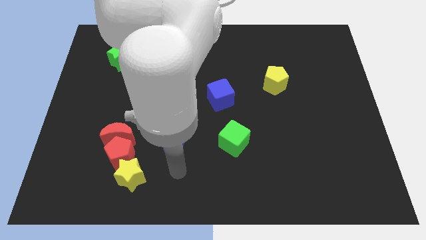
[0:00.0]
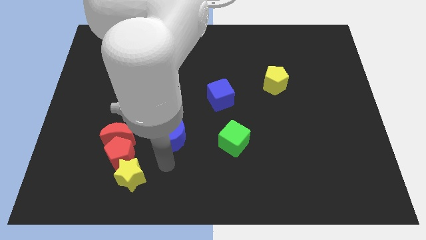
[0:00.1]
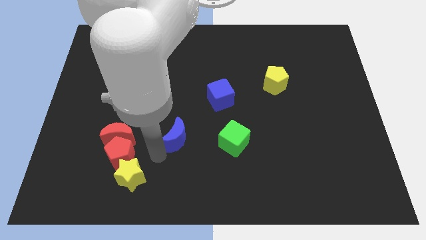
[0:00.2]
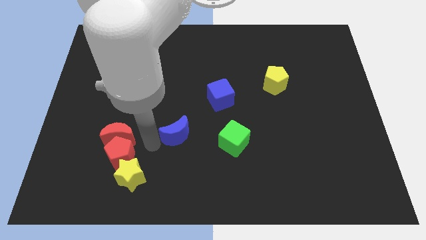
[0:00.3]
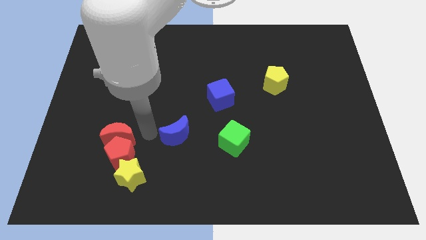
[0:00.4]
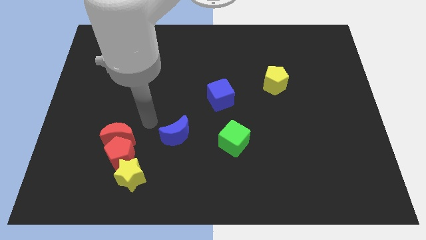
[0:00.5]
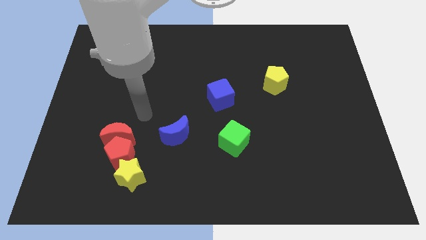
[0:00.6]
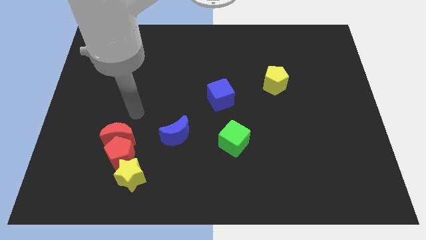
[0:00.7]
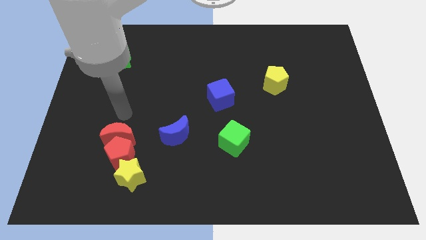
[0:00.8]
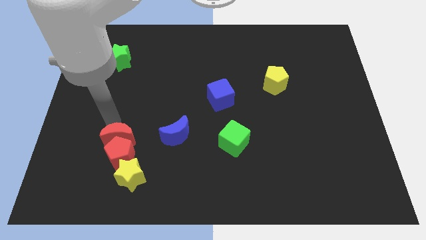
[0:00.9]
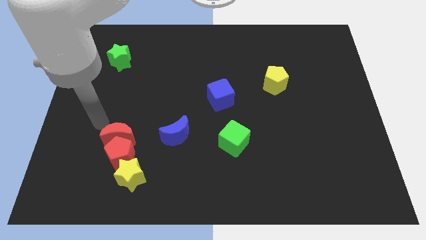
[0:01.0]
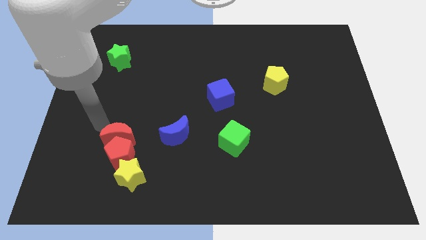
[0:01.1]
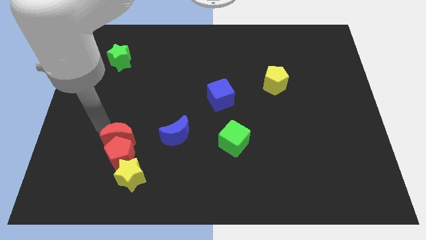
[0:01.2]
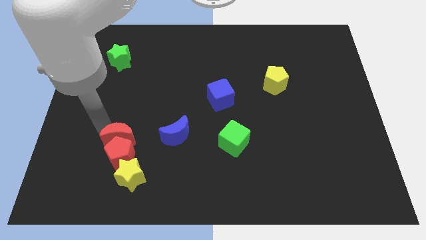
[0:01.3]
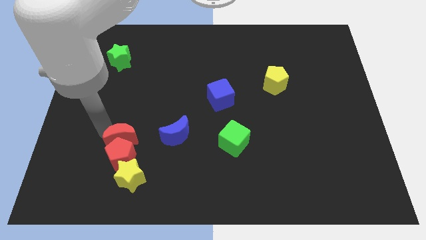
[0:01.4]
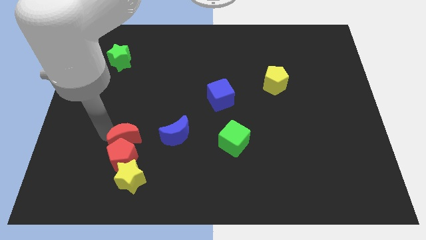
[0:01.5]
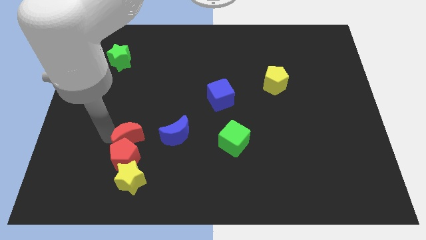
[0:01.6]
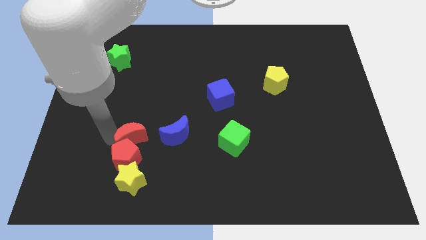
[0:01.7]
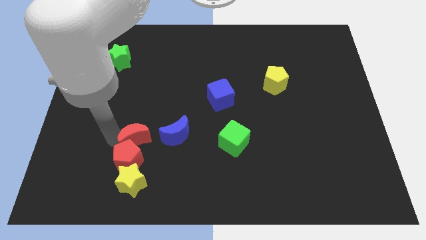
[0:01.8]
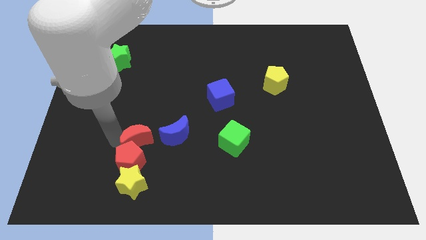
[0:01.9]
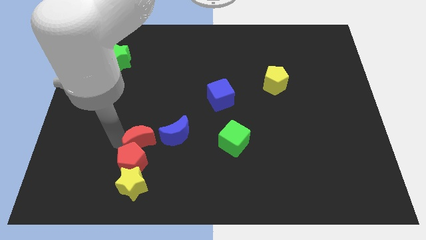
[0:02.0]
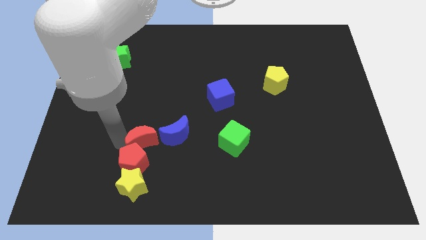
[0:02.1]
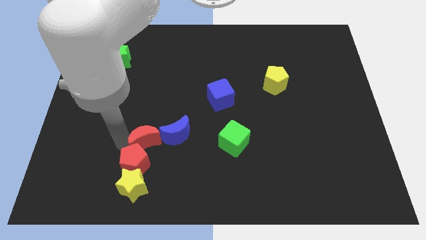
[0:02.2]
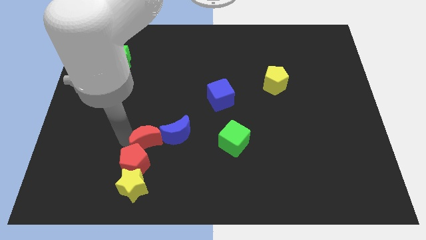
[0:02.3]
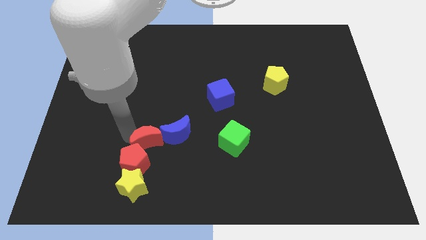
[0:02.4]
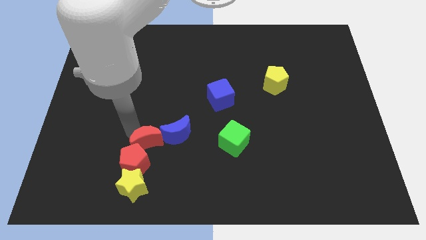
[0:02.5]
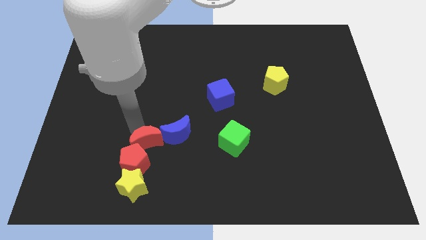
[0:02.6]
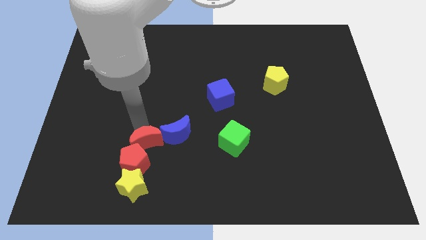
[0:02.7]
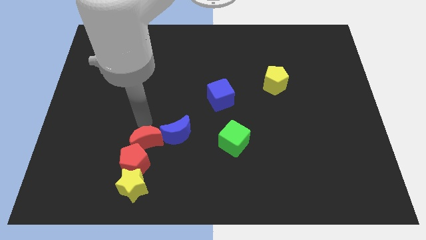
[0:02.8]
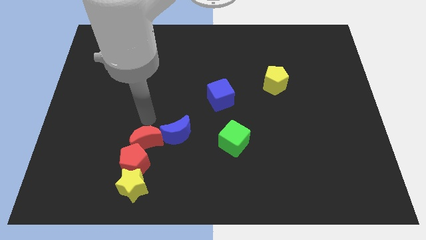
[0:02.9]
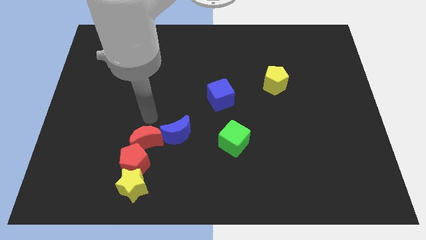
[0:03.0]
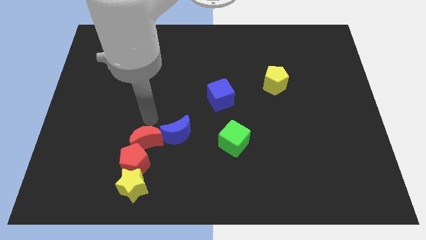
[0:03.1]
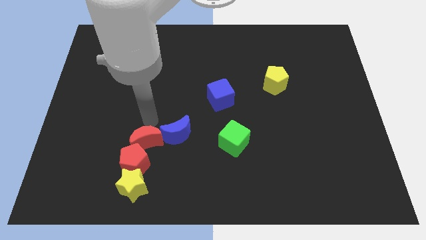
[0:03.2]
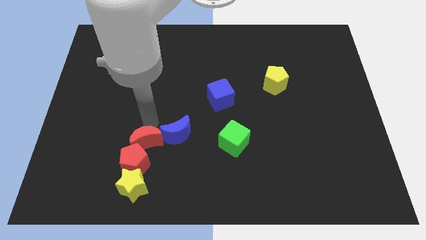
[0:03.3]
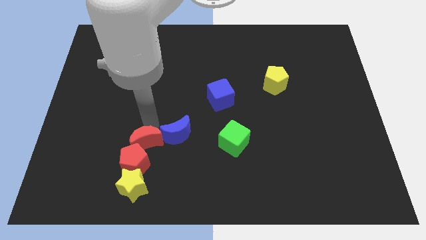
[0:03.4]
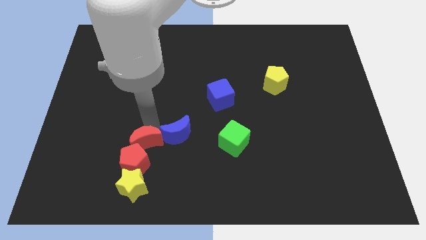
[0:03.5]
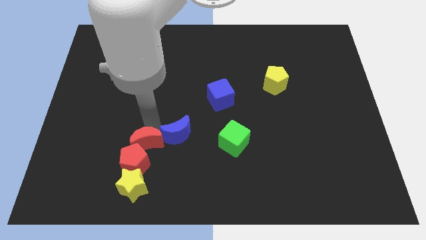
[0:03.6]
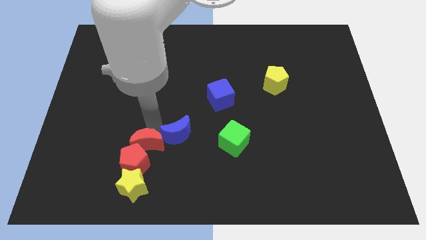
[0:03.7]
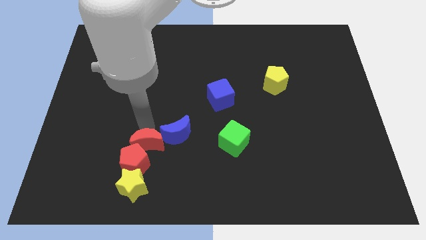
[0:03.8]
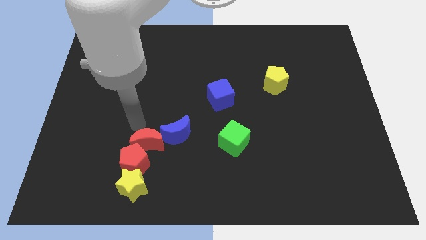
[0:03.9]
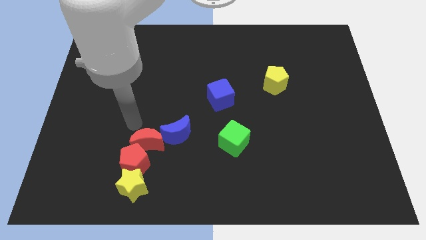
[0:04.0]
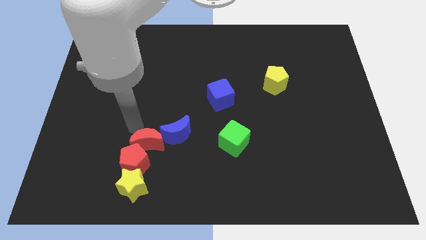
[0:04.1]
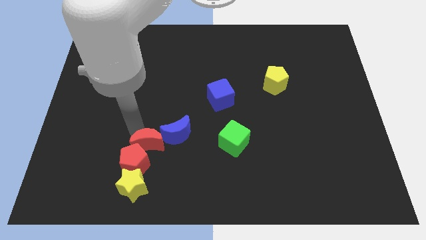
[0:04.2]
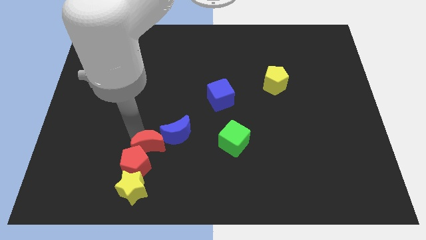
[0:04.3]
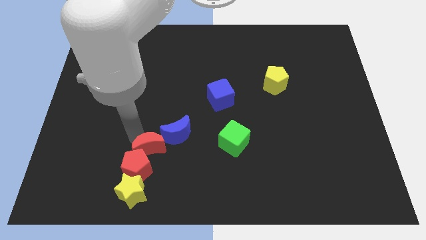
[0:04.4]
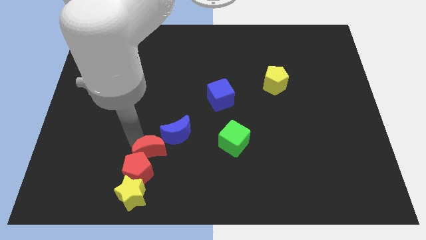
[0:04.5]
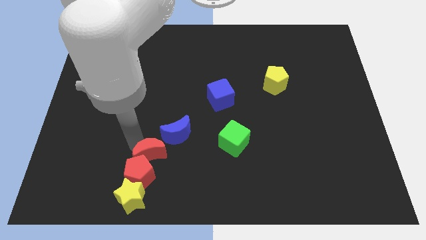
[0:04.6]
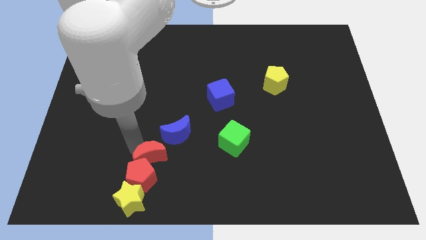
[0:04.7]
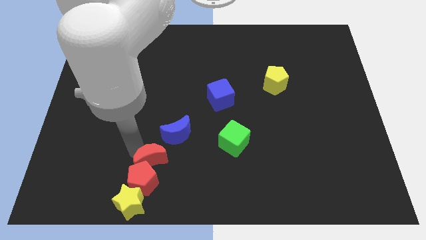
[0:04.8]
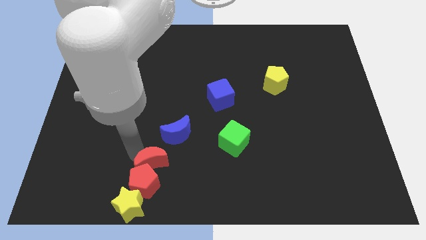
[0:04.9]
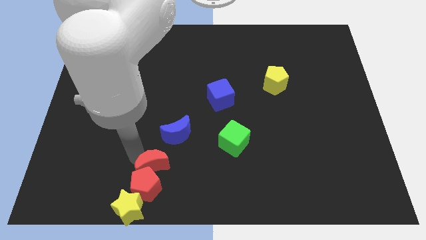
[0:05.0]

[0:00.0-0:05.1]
push the red moon below the blue moon

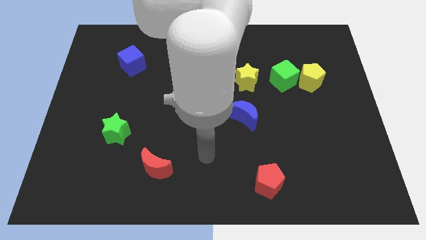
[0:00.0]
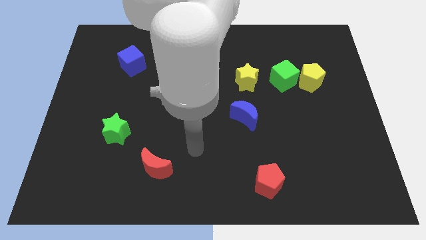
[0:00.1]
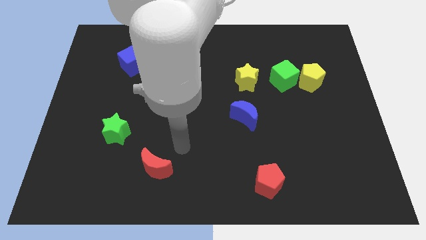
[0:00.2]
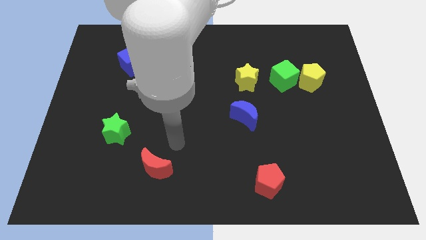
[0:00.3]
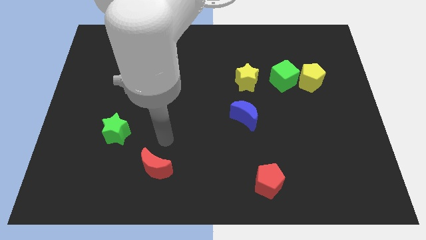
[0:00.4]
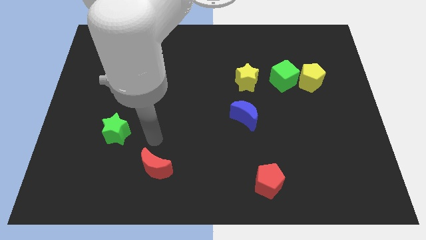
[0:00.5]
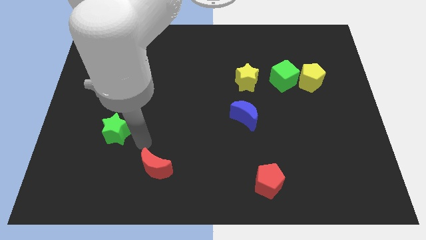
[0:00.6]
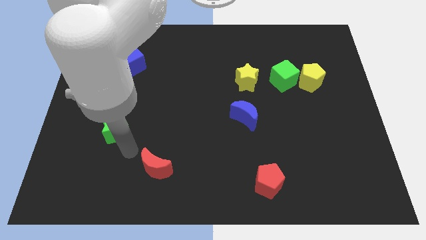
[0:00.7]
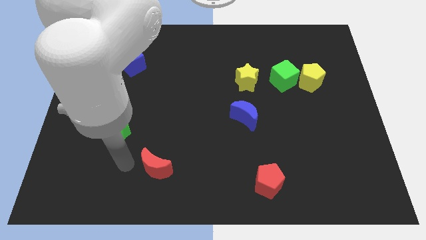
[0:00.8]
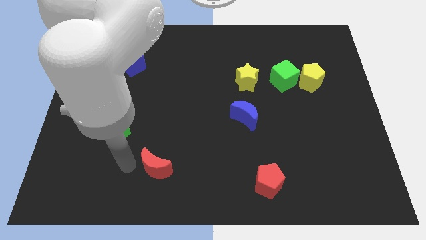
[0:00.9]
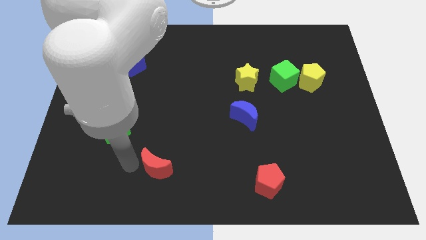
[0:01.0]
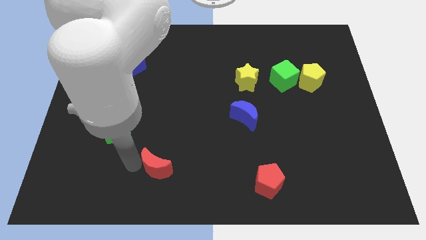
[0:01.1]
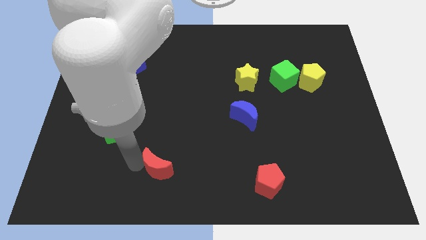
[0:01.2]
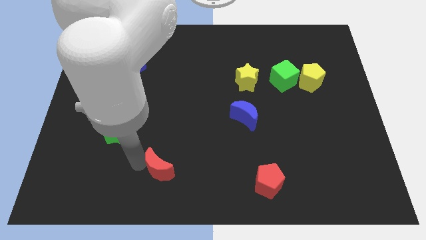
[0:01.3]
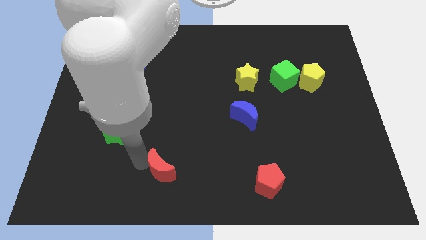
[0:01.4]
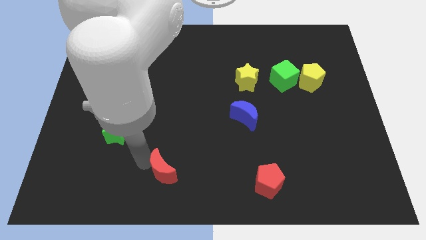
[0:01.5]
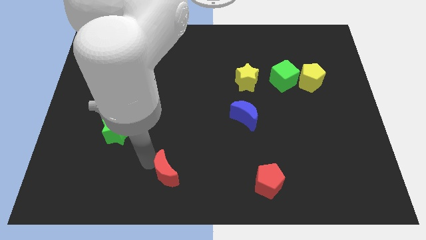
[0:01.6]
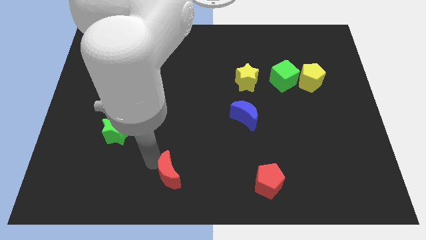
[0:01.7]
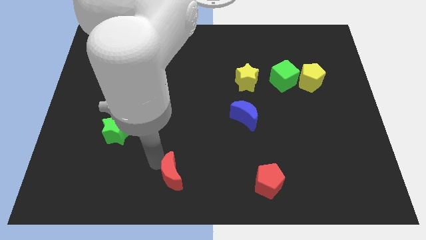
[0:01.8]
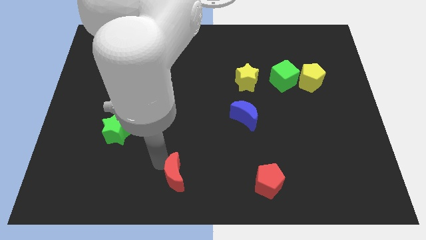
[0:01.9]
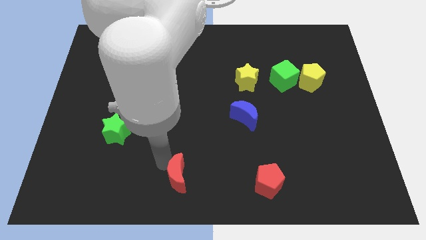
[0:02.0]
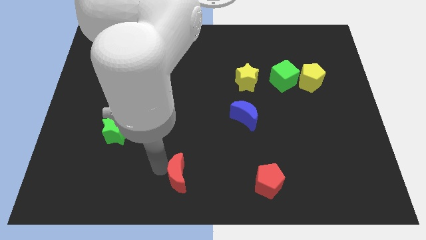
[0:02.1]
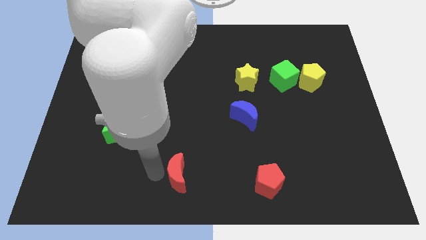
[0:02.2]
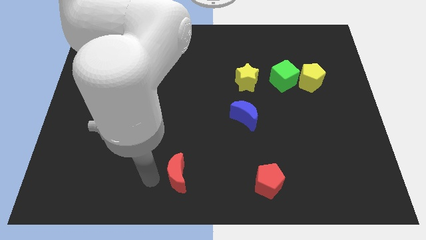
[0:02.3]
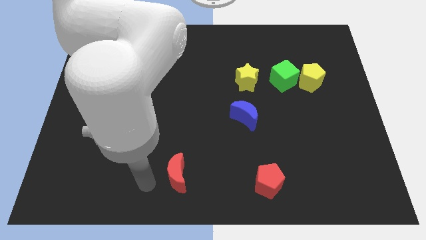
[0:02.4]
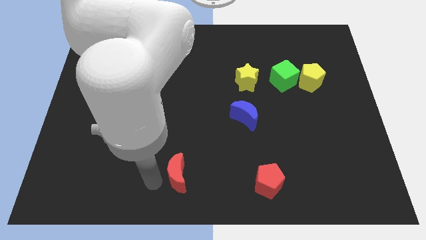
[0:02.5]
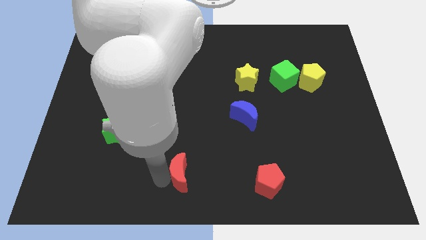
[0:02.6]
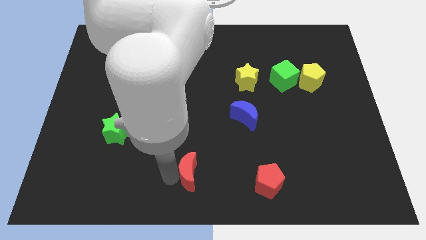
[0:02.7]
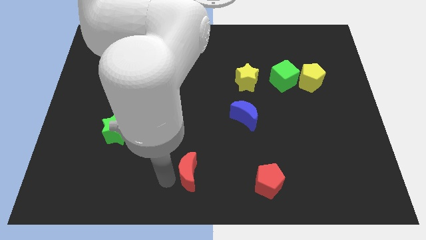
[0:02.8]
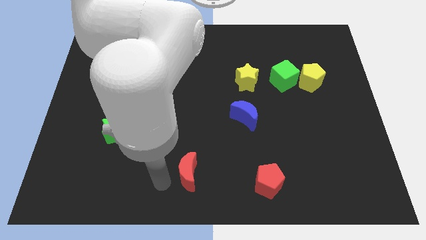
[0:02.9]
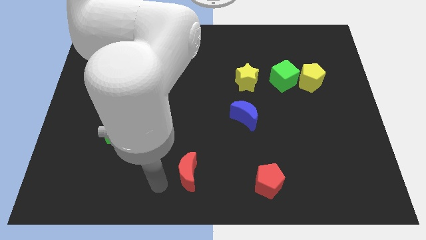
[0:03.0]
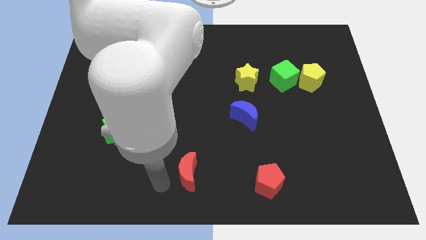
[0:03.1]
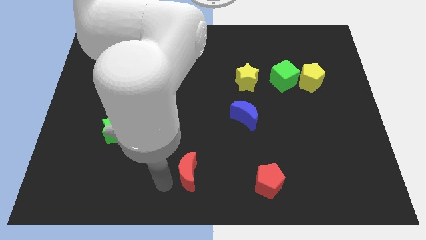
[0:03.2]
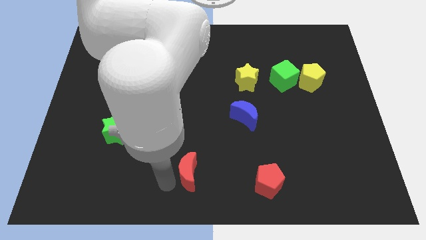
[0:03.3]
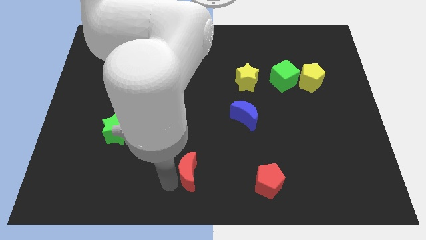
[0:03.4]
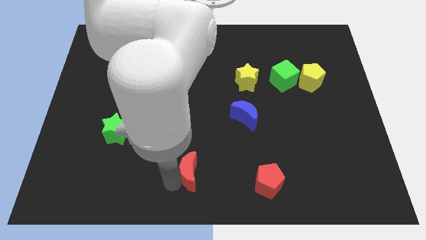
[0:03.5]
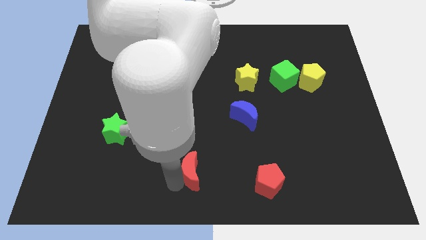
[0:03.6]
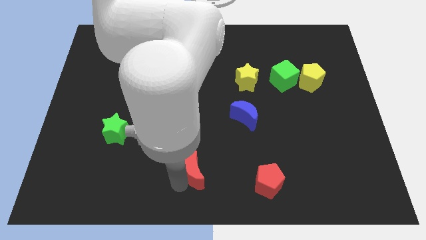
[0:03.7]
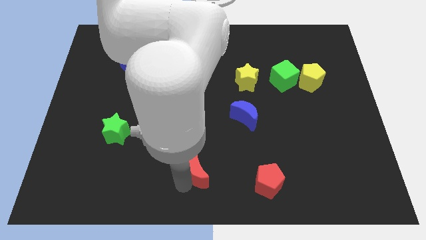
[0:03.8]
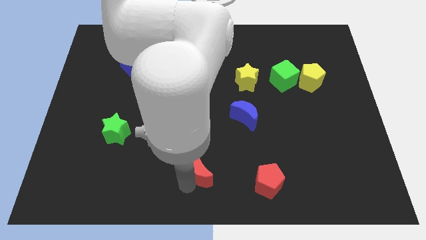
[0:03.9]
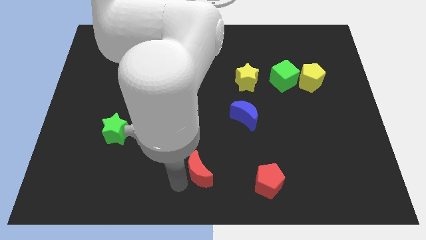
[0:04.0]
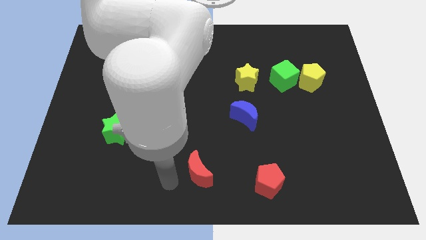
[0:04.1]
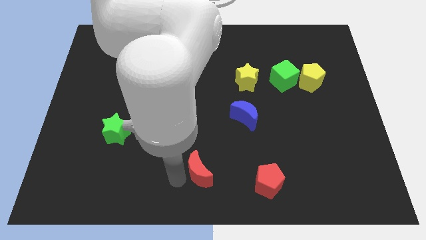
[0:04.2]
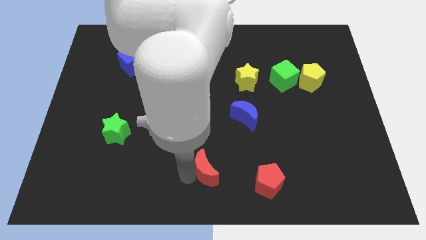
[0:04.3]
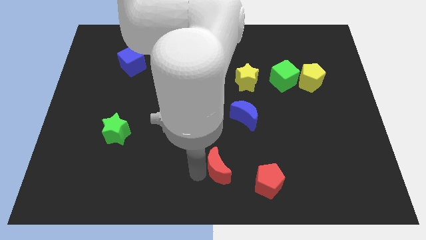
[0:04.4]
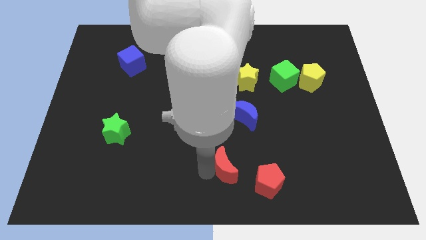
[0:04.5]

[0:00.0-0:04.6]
push the red moon to the top left side of the red pentagon
